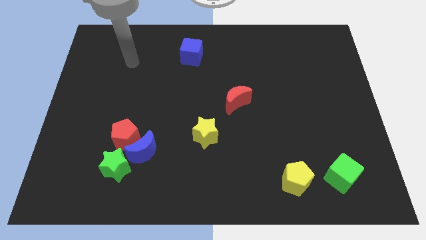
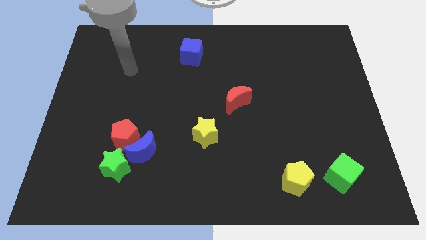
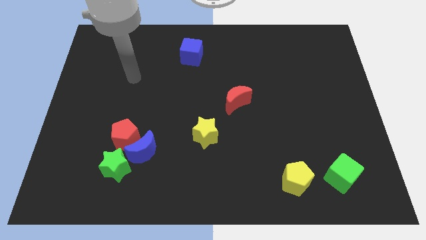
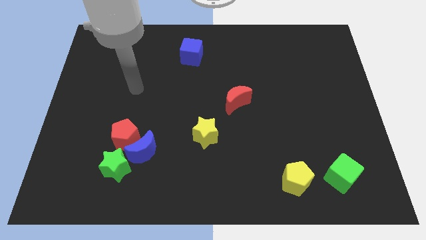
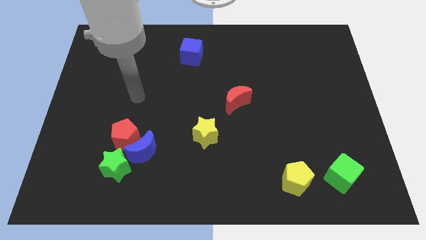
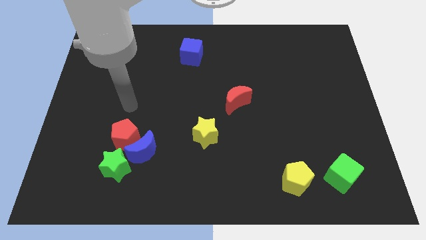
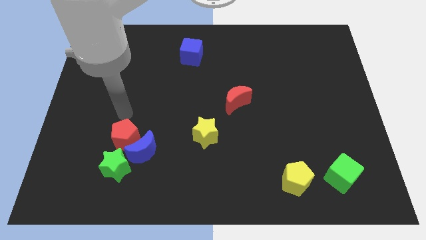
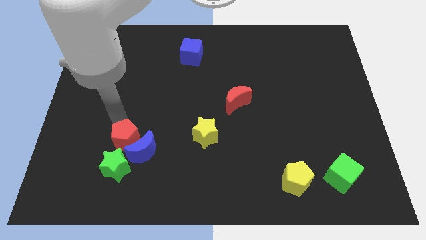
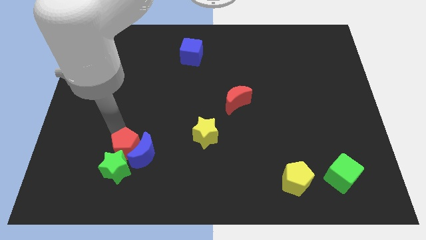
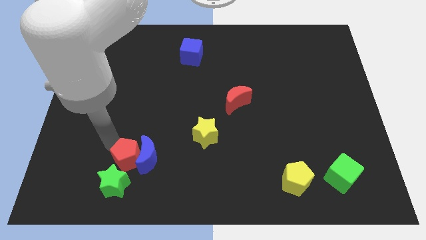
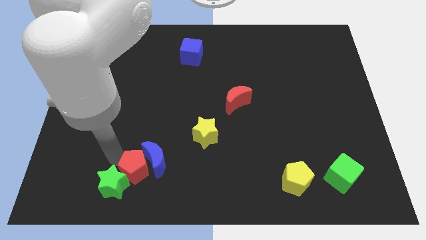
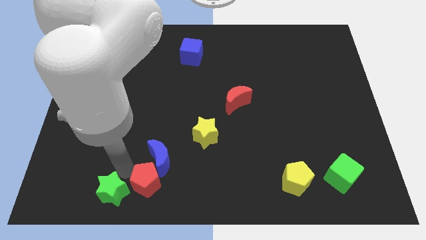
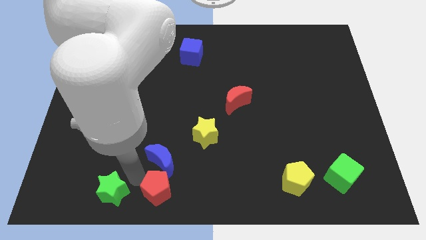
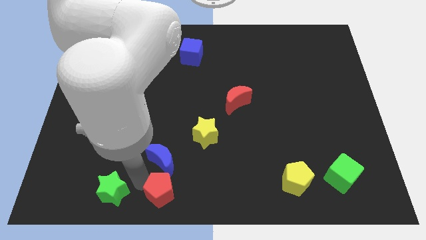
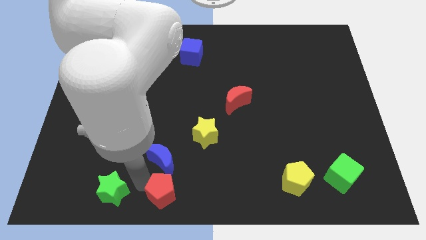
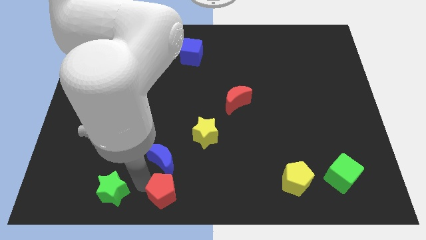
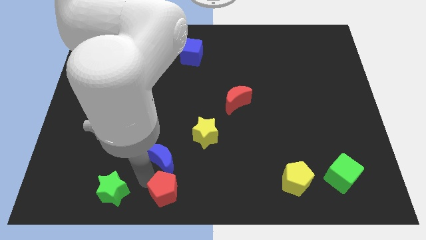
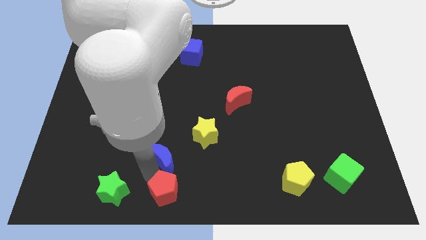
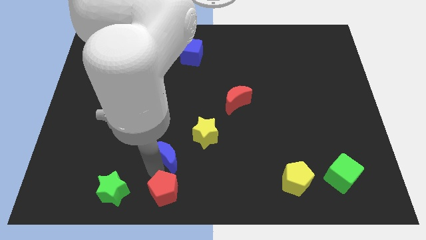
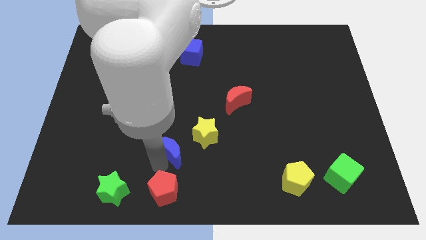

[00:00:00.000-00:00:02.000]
move the blue moon away from the red pentagon and green star

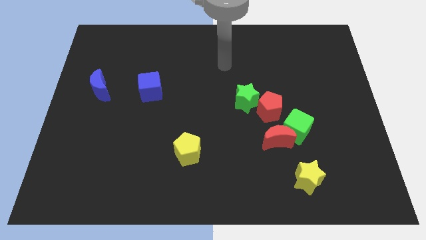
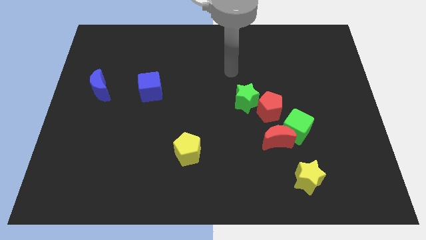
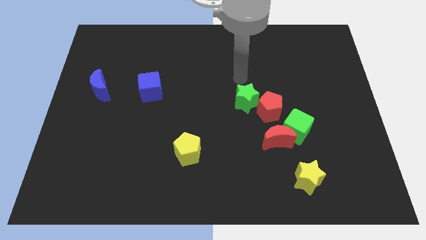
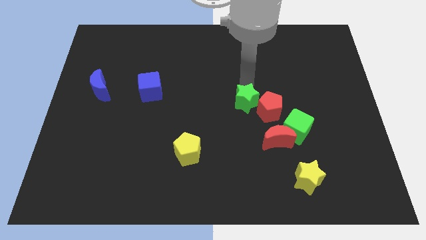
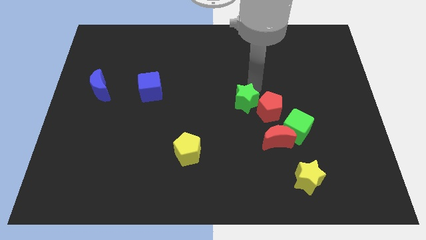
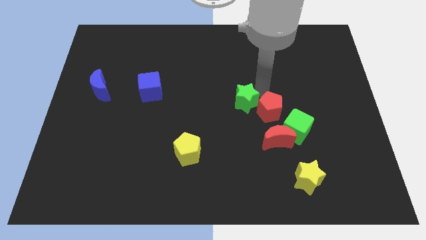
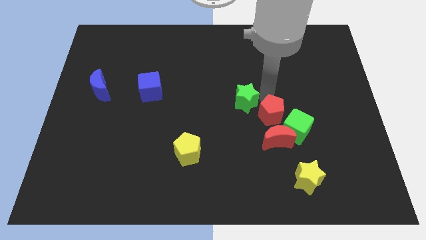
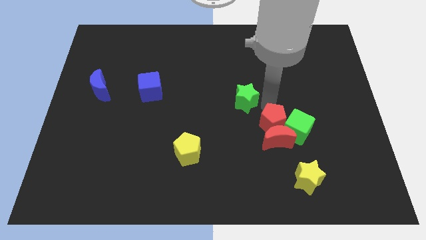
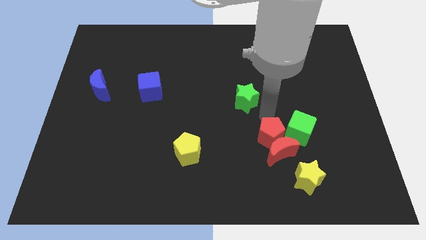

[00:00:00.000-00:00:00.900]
move the green star away from the red pentagon

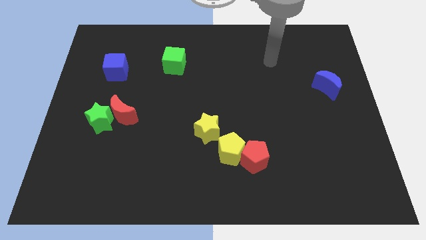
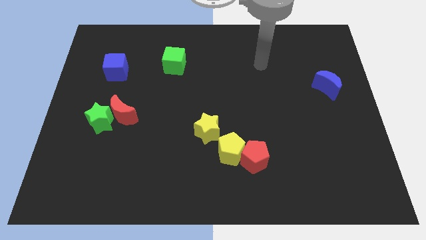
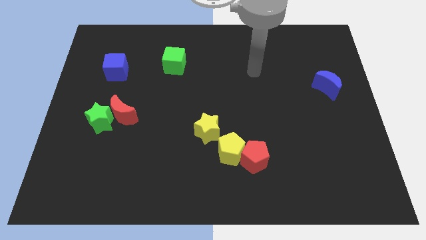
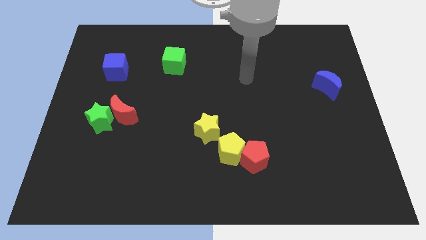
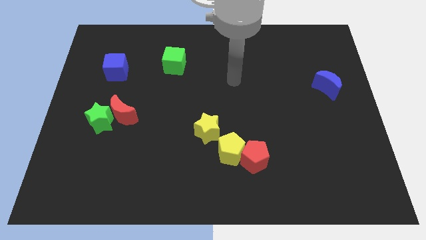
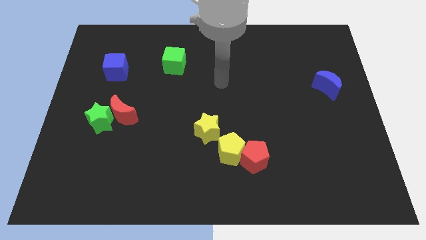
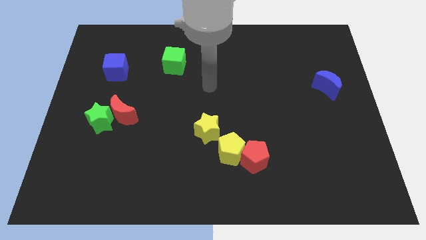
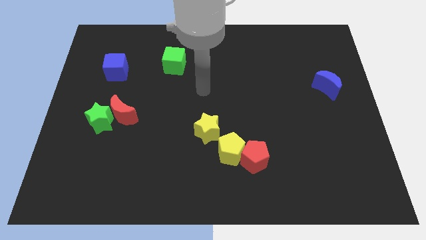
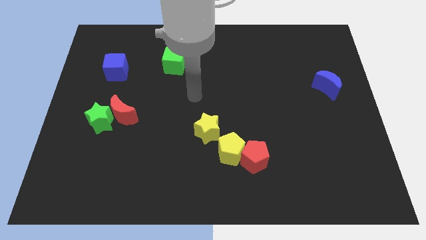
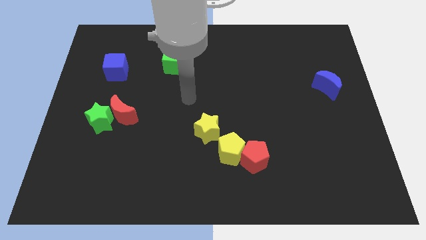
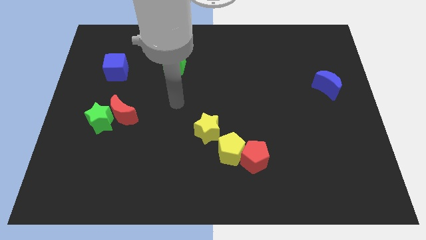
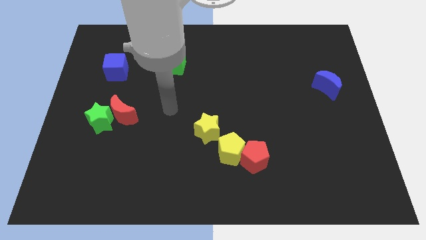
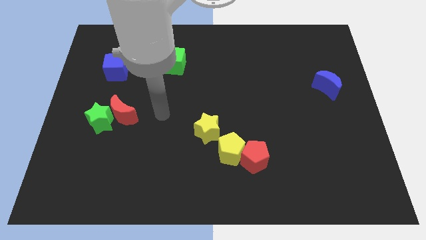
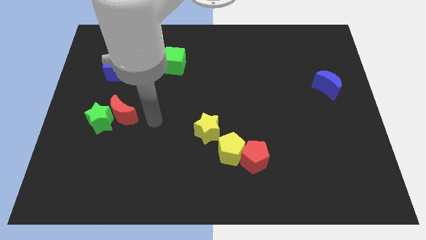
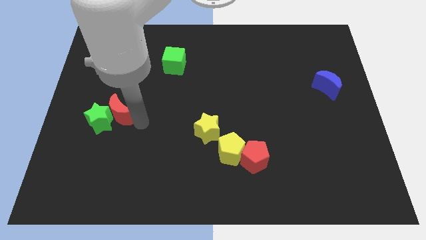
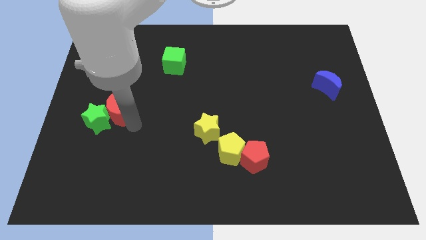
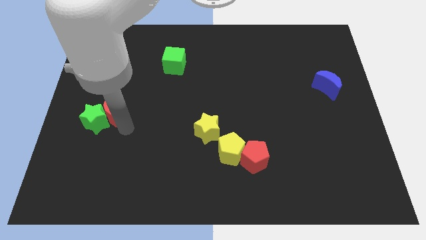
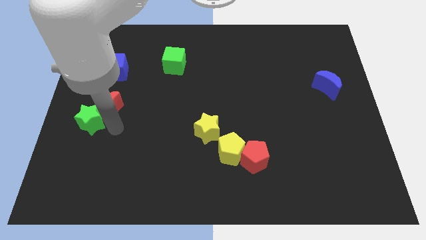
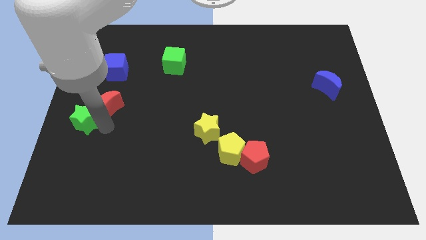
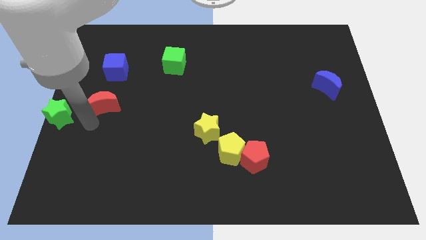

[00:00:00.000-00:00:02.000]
move the red moon away from the green star

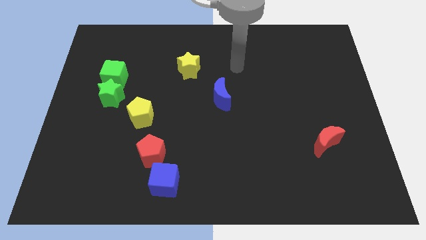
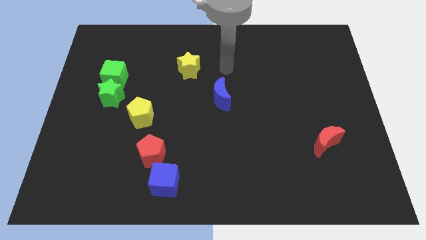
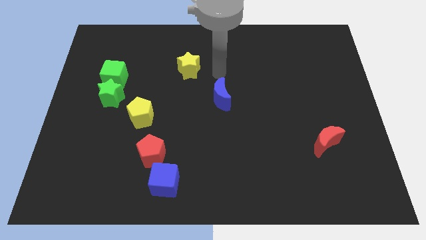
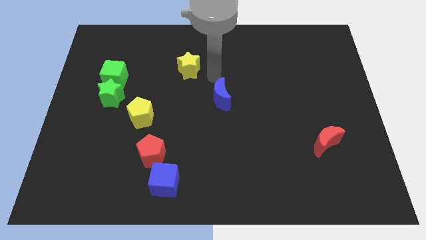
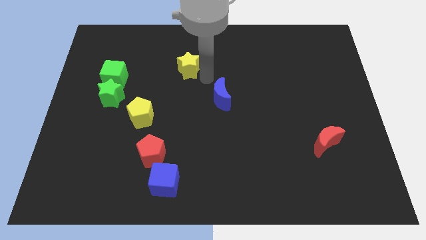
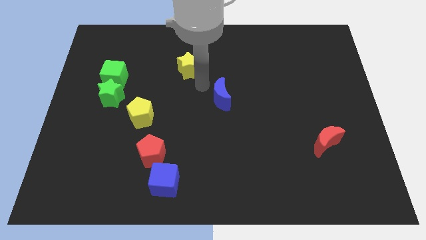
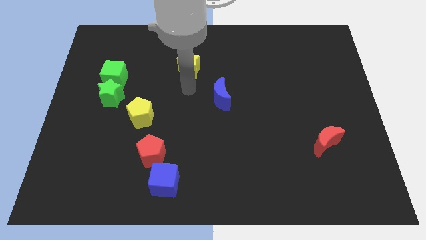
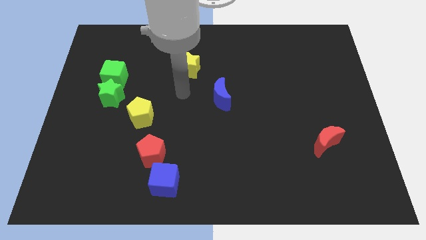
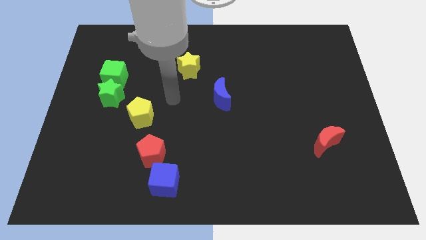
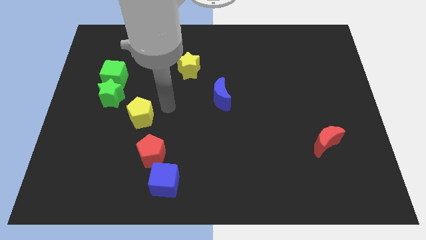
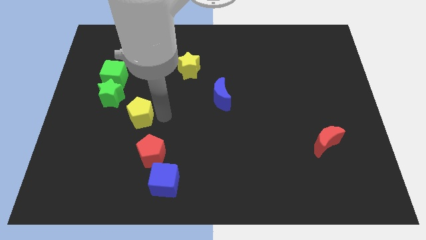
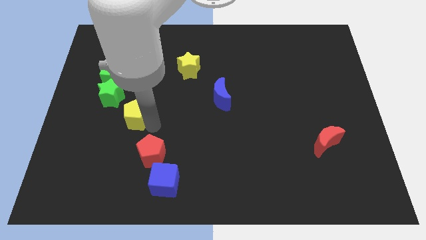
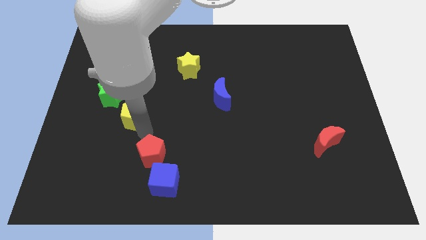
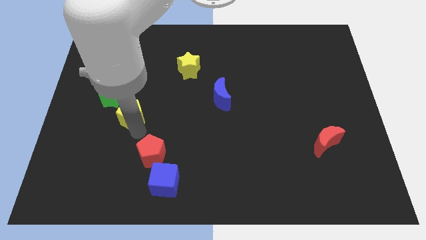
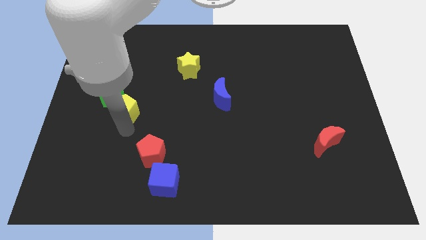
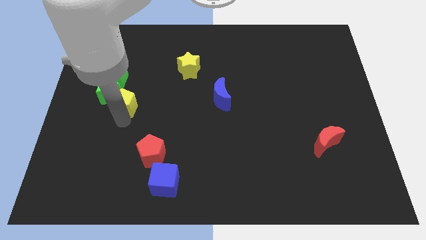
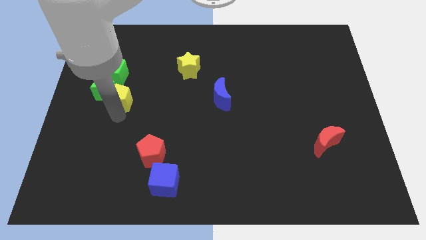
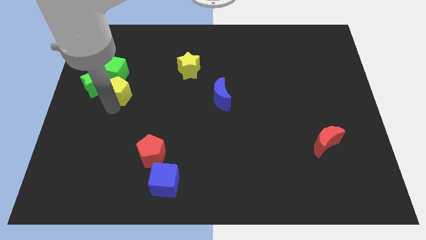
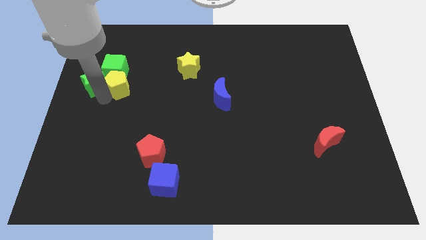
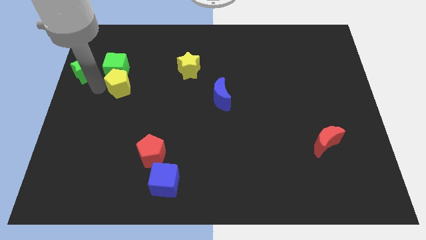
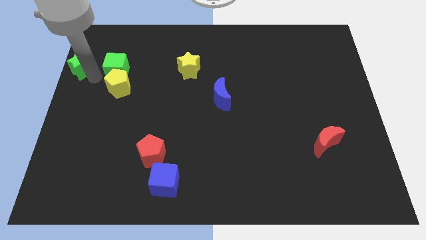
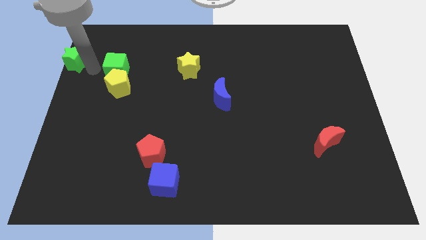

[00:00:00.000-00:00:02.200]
move the green cube away from the green star

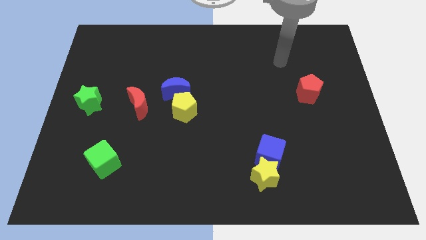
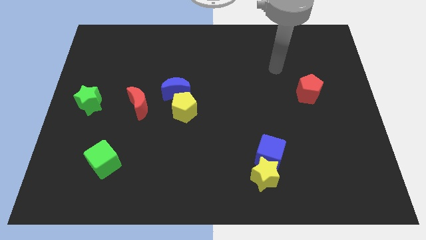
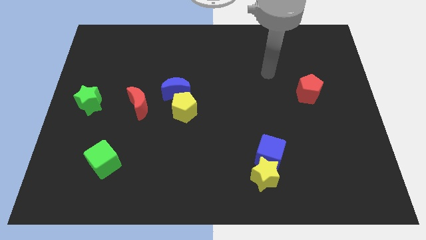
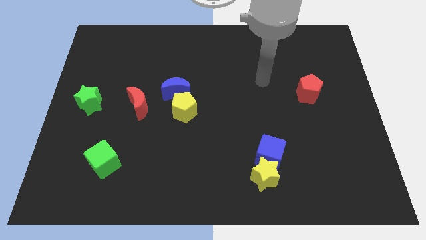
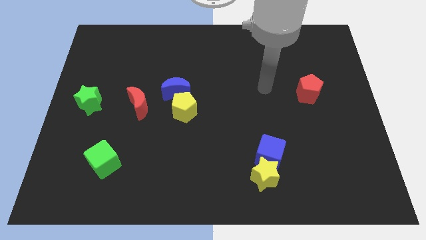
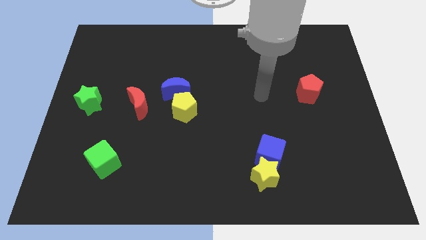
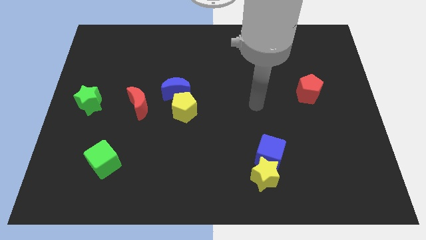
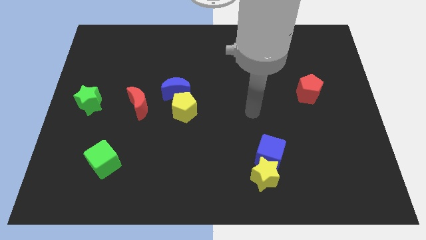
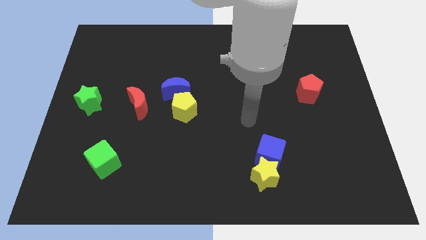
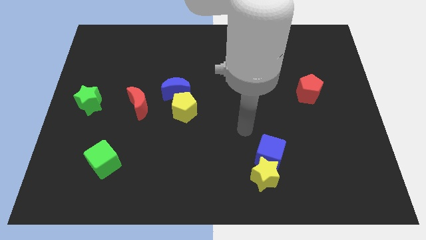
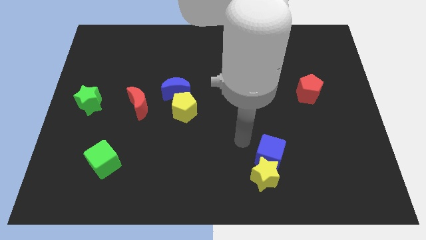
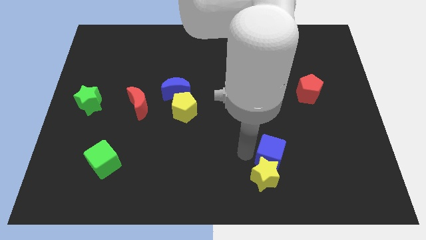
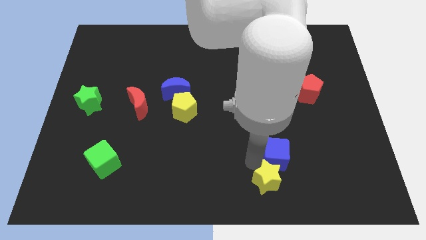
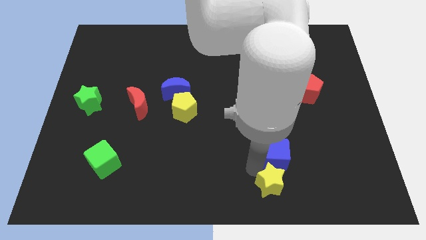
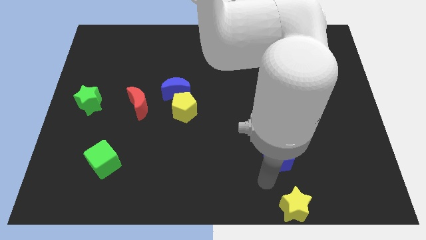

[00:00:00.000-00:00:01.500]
pull the blue cube apart from the yellow star

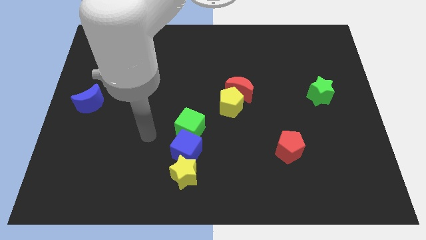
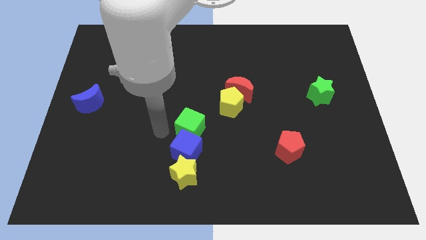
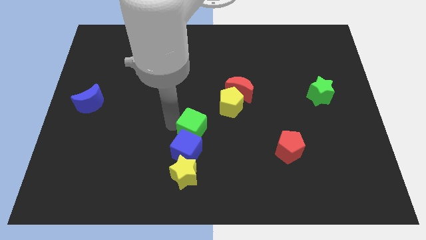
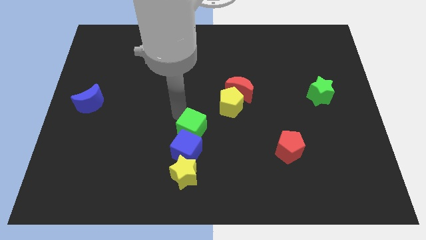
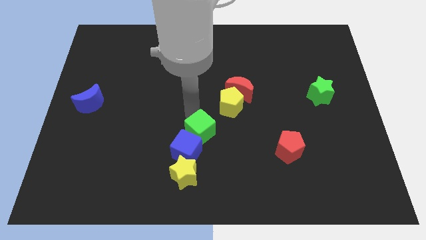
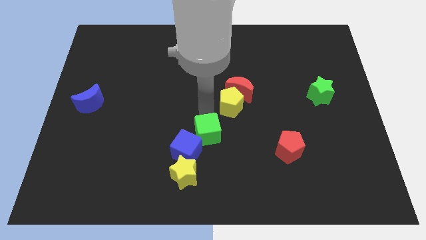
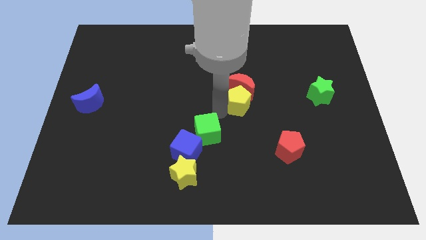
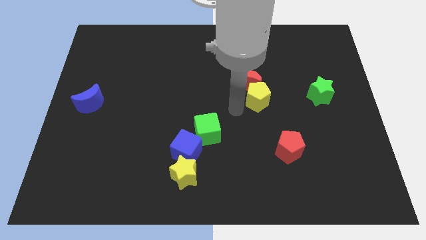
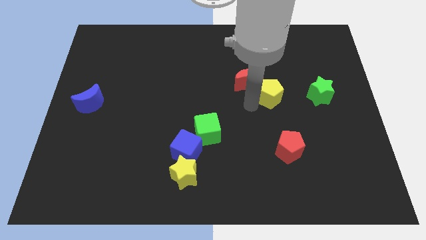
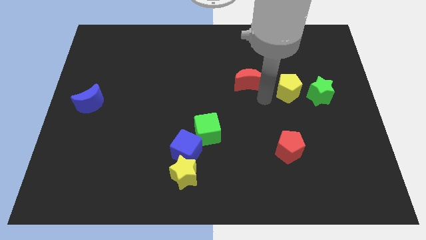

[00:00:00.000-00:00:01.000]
move the red moon away from the yellow pentagon
